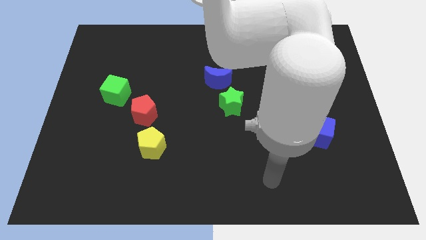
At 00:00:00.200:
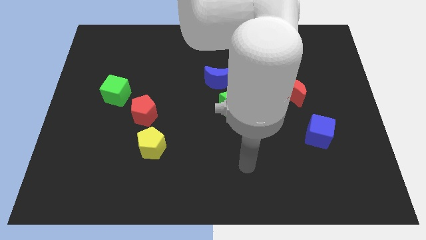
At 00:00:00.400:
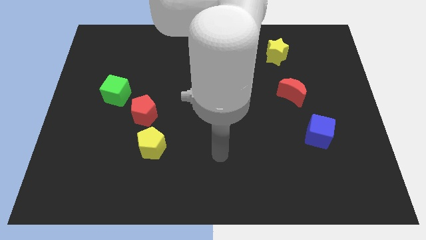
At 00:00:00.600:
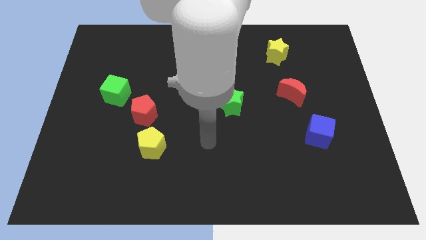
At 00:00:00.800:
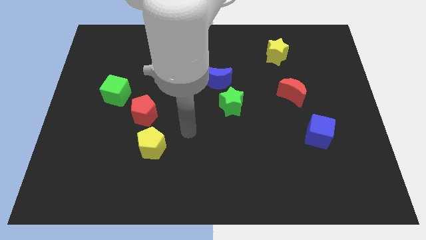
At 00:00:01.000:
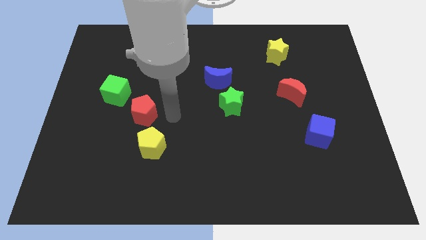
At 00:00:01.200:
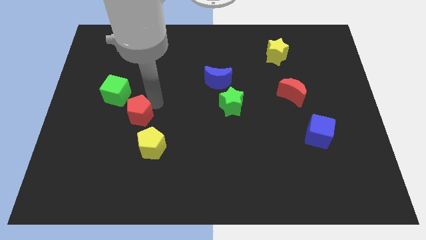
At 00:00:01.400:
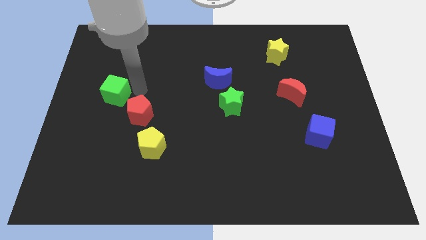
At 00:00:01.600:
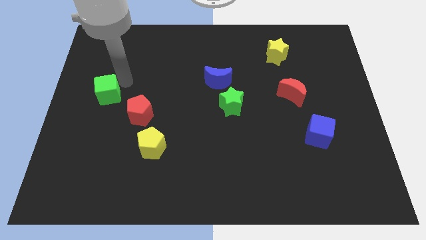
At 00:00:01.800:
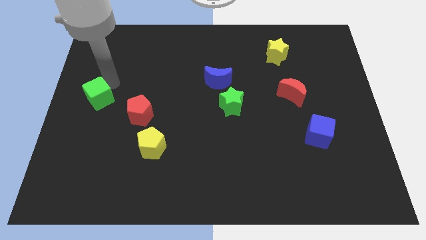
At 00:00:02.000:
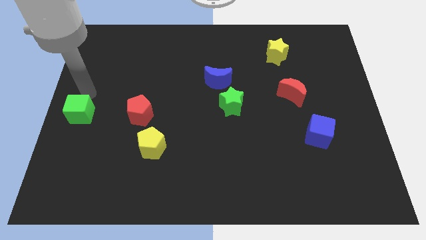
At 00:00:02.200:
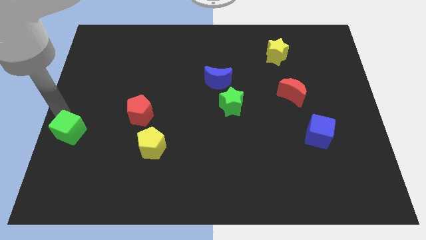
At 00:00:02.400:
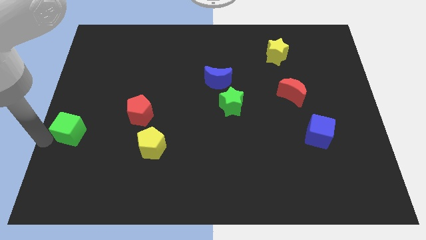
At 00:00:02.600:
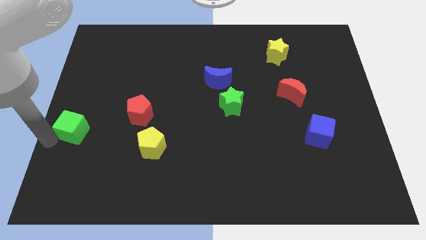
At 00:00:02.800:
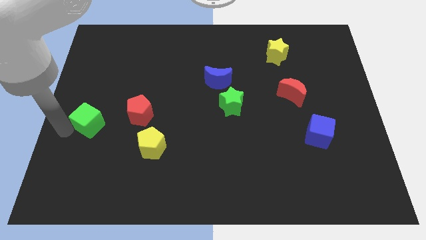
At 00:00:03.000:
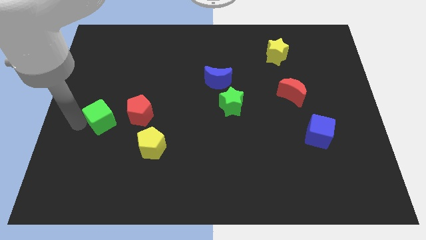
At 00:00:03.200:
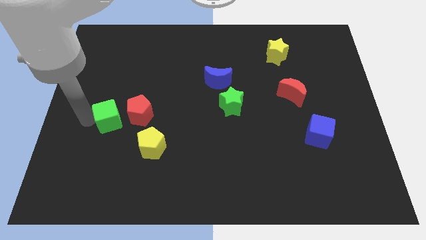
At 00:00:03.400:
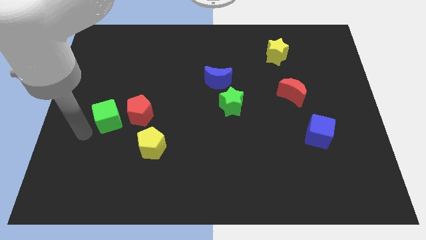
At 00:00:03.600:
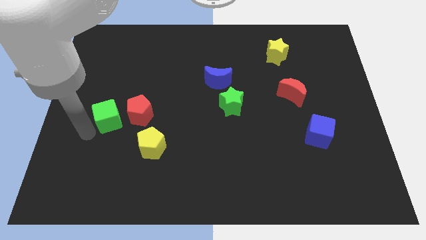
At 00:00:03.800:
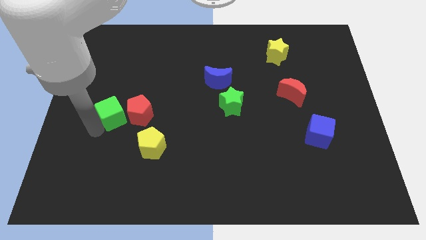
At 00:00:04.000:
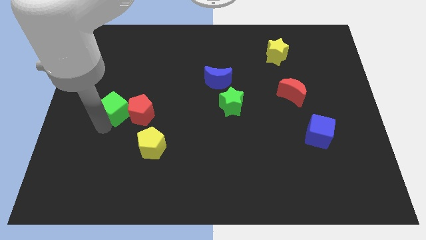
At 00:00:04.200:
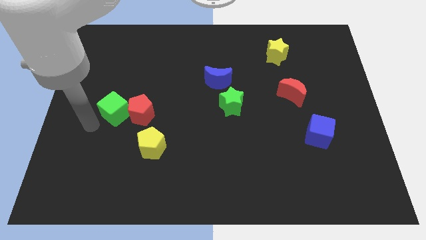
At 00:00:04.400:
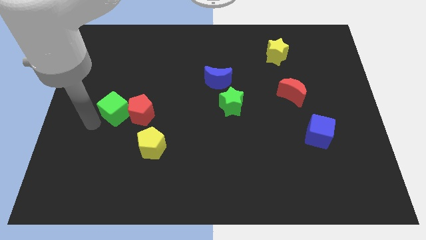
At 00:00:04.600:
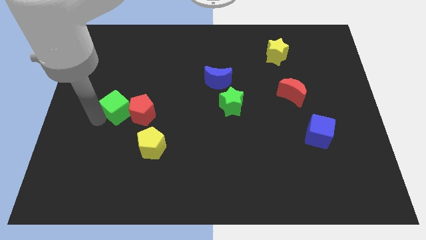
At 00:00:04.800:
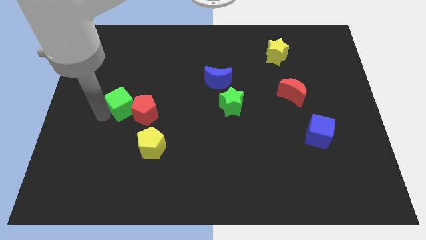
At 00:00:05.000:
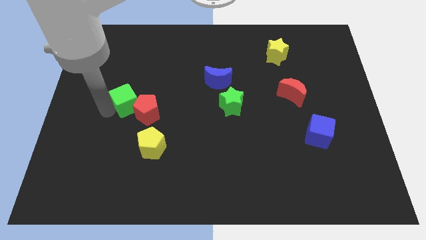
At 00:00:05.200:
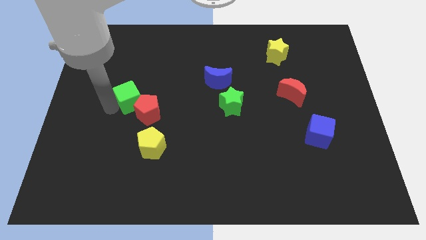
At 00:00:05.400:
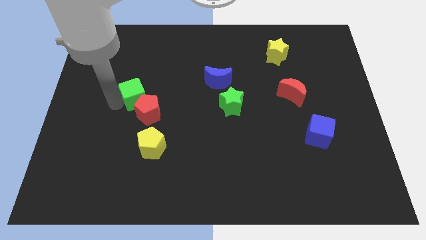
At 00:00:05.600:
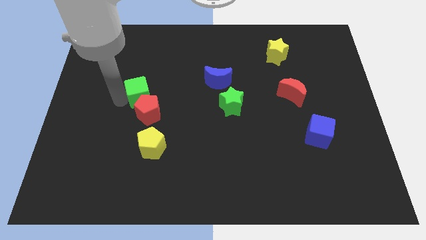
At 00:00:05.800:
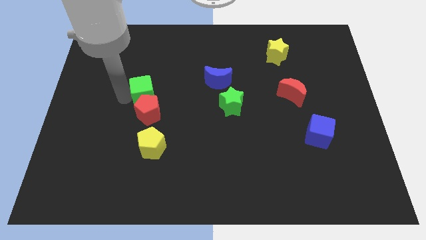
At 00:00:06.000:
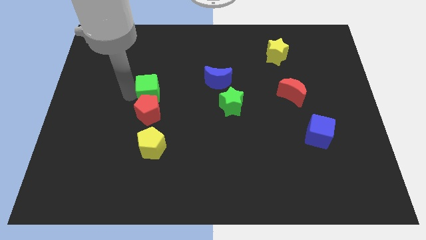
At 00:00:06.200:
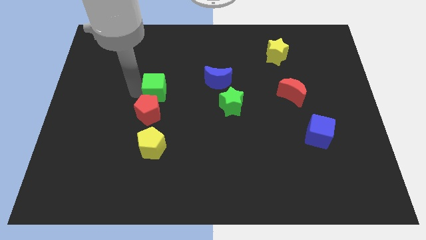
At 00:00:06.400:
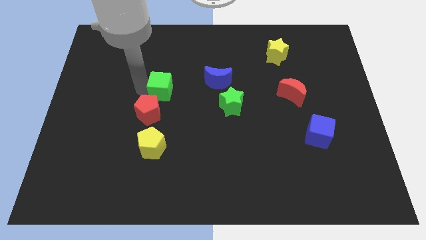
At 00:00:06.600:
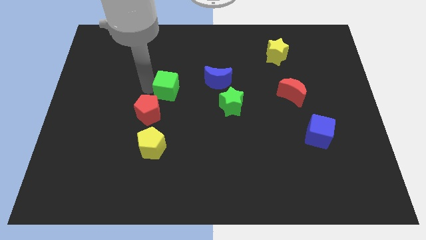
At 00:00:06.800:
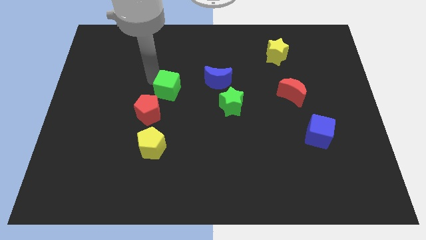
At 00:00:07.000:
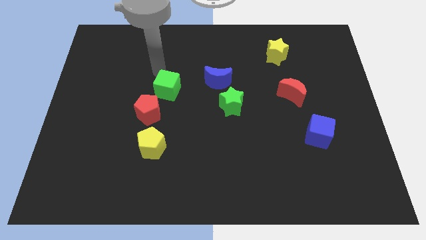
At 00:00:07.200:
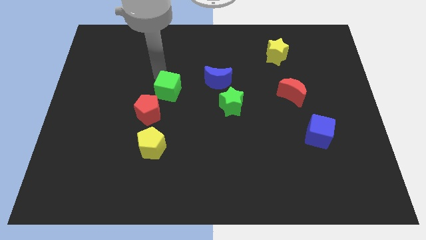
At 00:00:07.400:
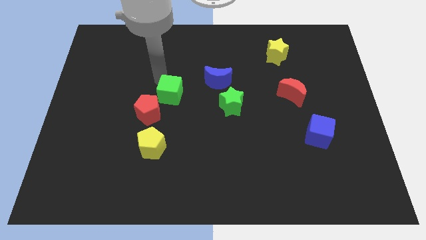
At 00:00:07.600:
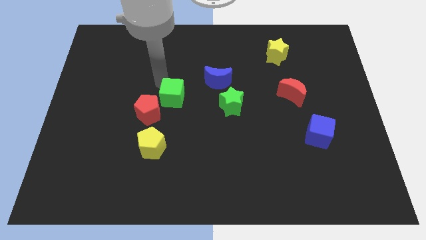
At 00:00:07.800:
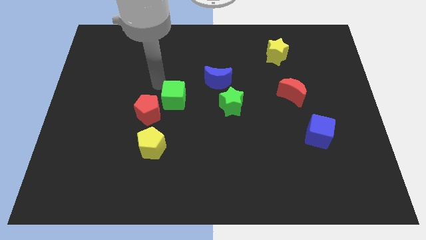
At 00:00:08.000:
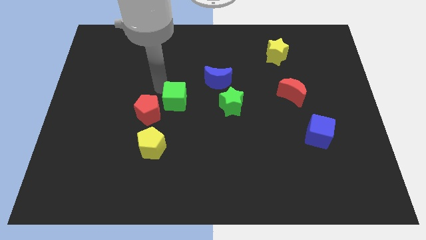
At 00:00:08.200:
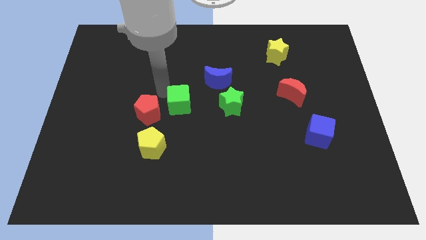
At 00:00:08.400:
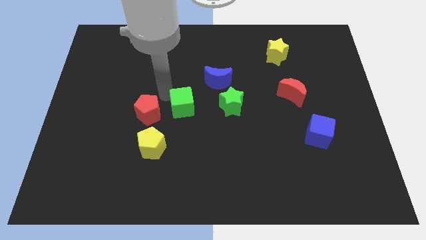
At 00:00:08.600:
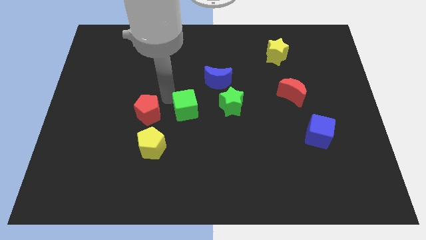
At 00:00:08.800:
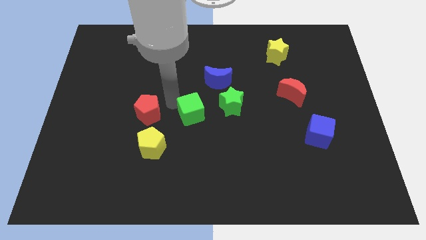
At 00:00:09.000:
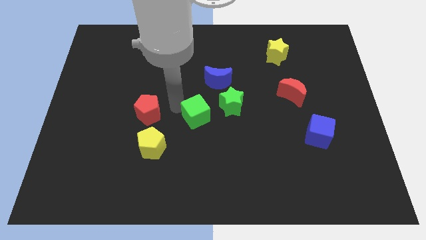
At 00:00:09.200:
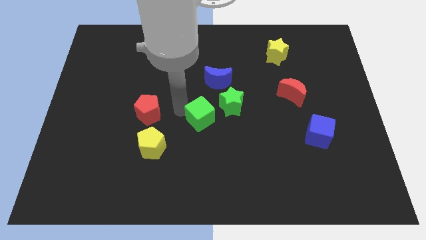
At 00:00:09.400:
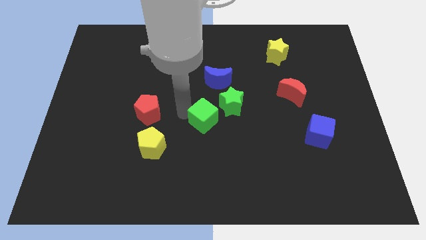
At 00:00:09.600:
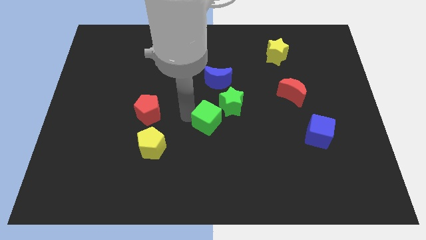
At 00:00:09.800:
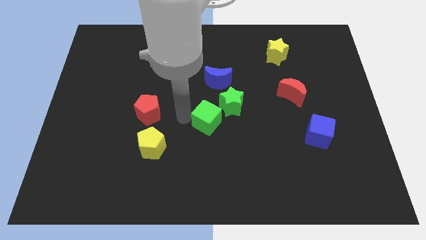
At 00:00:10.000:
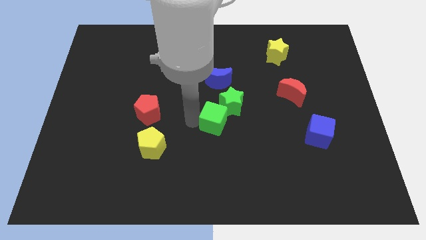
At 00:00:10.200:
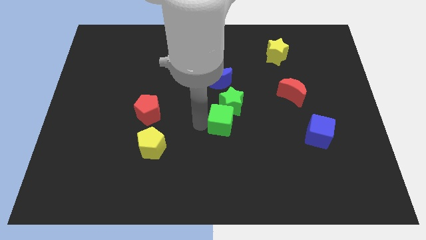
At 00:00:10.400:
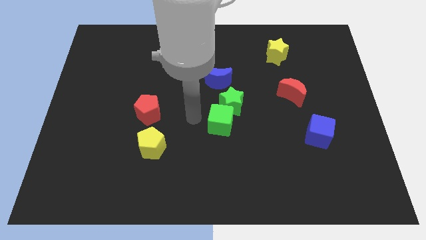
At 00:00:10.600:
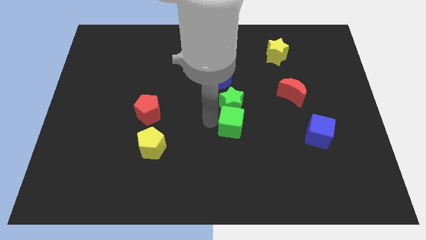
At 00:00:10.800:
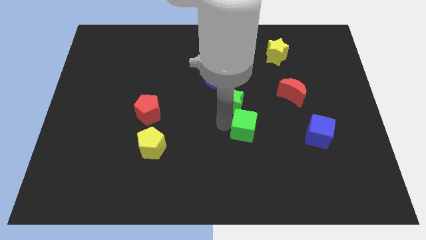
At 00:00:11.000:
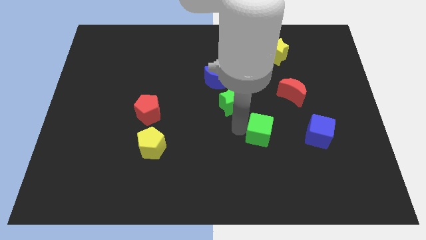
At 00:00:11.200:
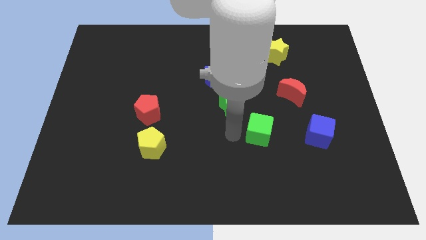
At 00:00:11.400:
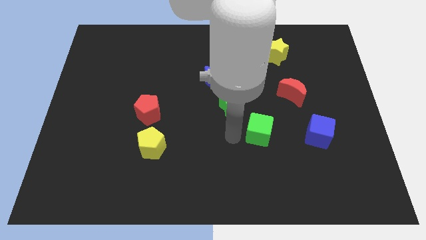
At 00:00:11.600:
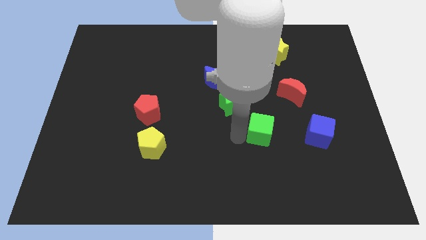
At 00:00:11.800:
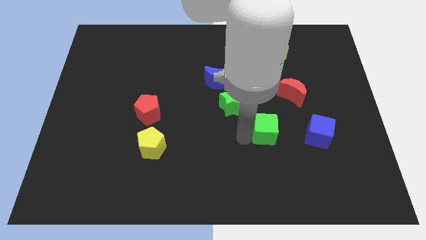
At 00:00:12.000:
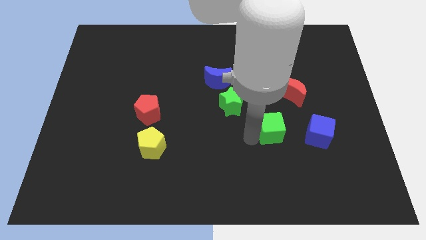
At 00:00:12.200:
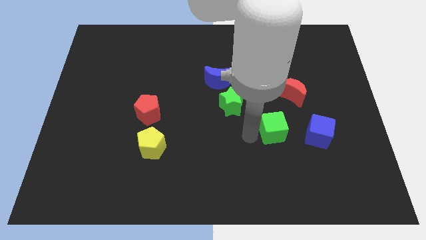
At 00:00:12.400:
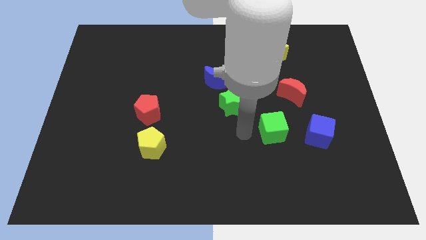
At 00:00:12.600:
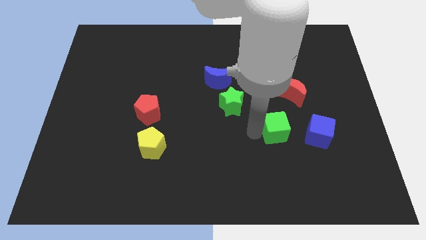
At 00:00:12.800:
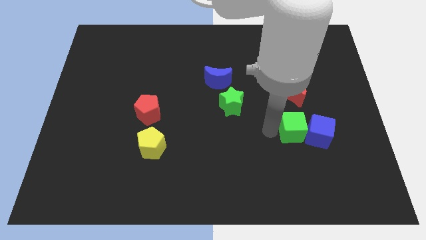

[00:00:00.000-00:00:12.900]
slide the green cube next to the blue cube

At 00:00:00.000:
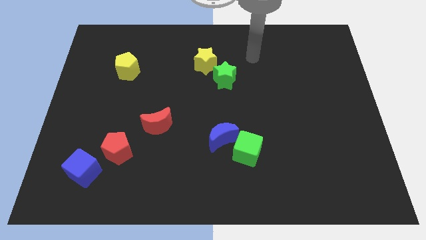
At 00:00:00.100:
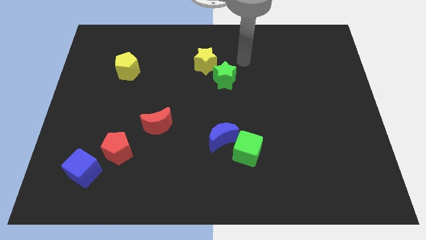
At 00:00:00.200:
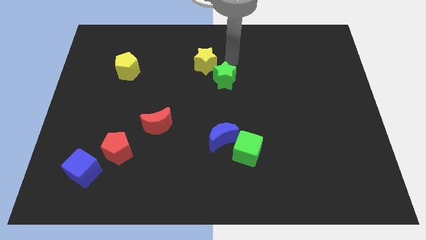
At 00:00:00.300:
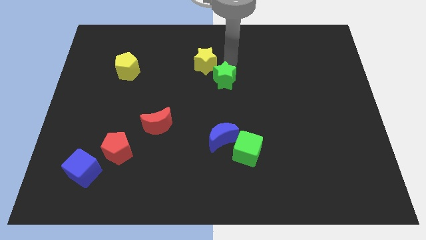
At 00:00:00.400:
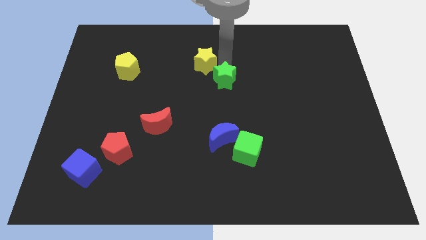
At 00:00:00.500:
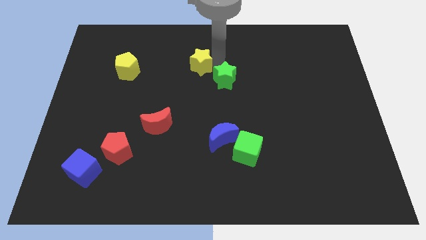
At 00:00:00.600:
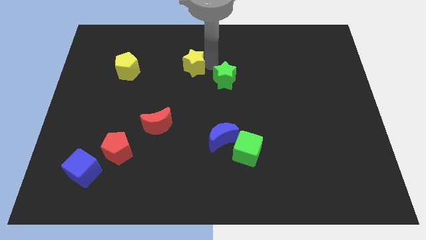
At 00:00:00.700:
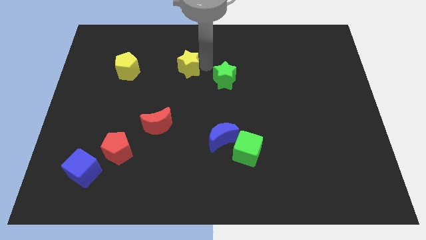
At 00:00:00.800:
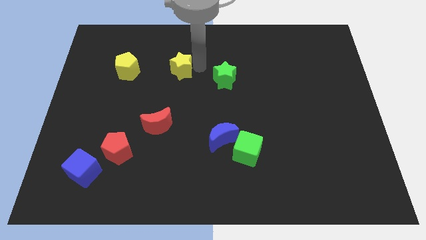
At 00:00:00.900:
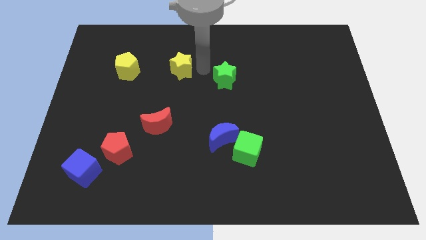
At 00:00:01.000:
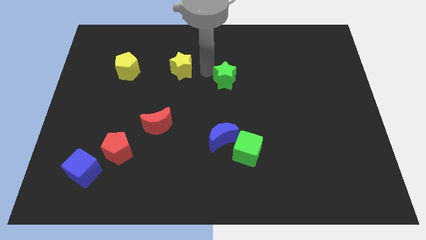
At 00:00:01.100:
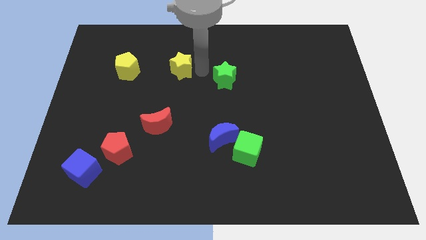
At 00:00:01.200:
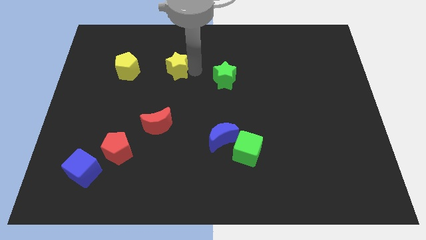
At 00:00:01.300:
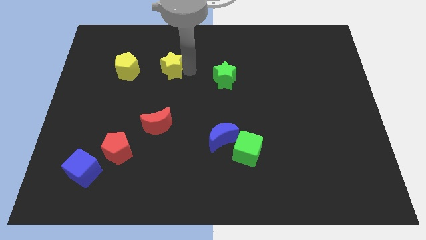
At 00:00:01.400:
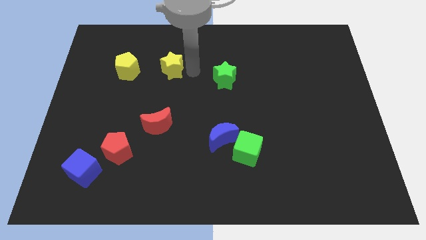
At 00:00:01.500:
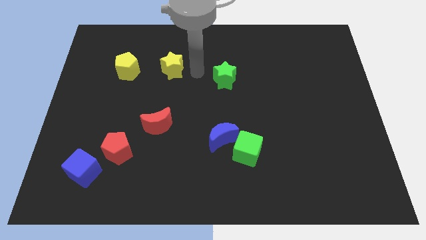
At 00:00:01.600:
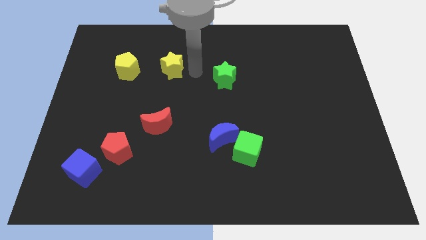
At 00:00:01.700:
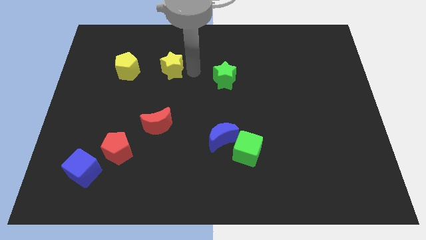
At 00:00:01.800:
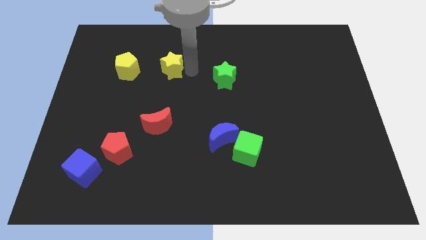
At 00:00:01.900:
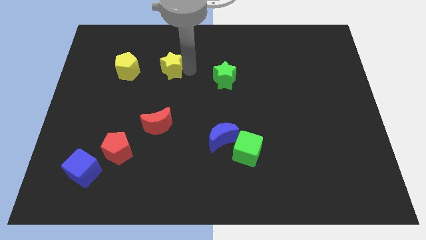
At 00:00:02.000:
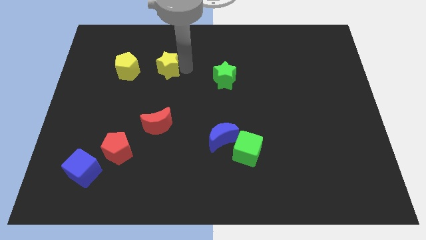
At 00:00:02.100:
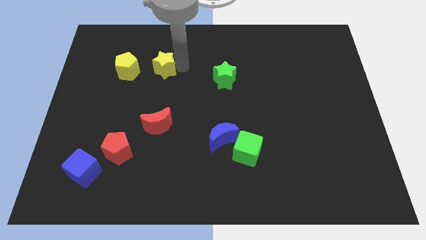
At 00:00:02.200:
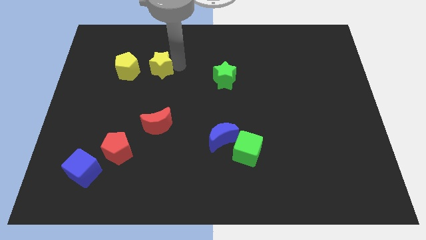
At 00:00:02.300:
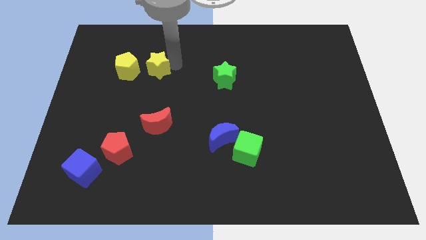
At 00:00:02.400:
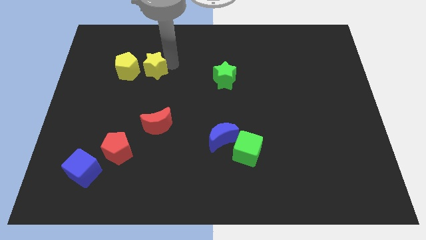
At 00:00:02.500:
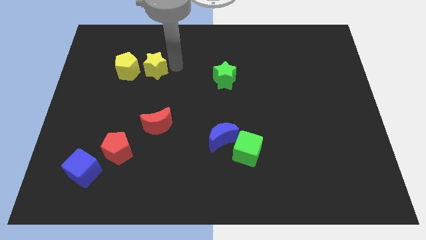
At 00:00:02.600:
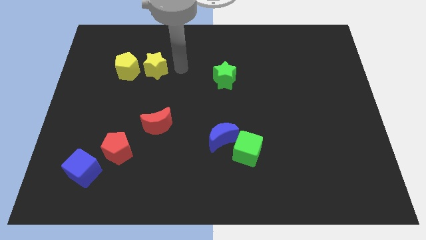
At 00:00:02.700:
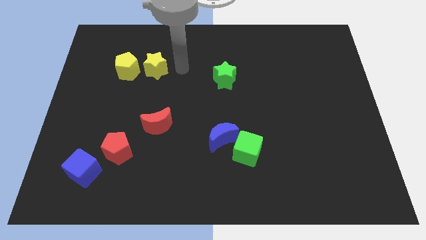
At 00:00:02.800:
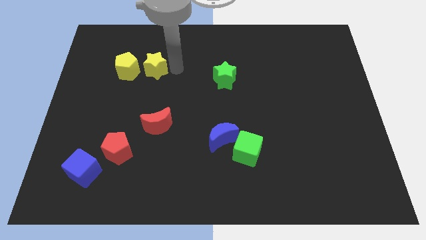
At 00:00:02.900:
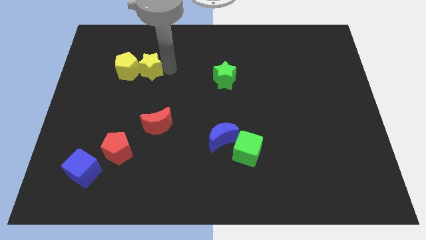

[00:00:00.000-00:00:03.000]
move the yellow star next to the yellow pentagon
